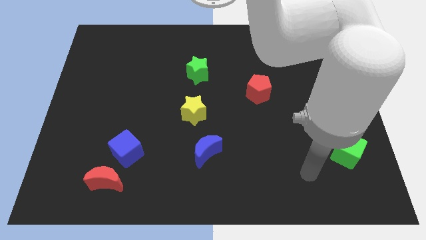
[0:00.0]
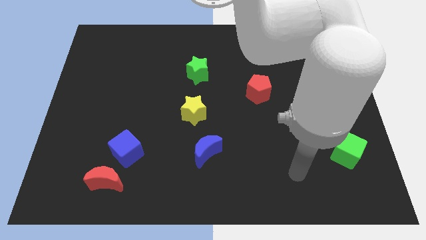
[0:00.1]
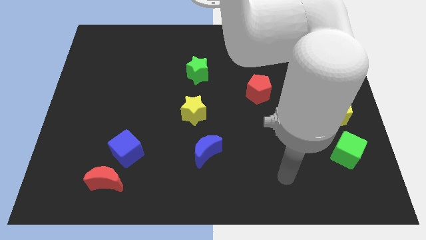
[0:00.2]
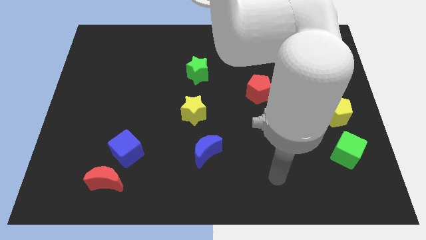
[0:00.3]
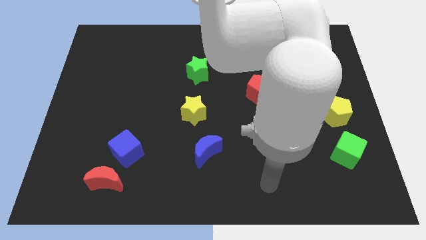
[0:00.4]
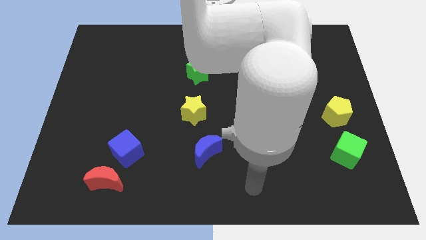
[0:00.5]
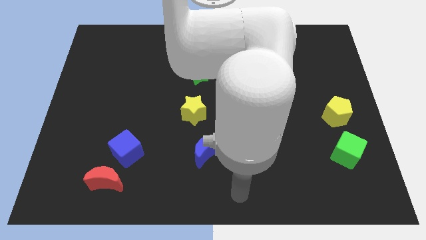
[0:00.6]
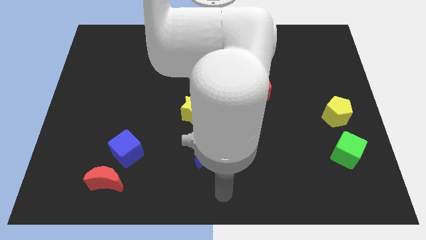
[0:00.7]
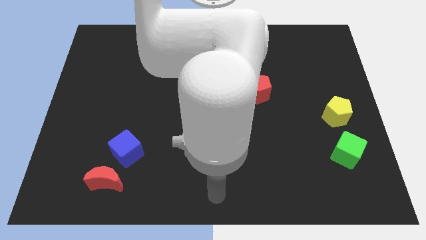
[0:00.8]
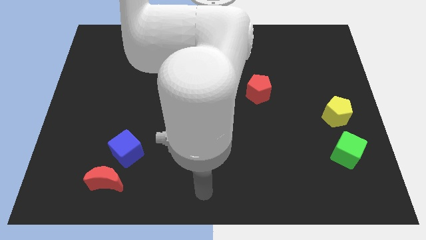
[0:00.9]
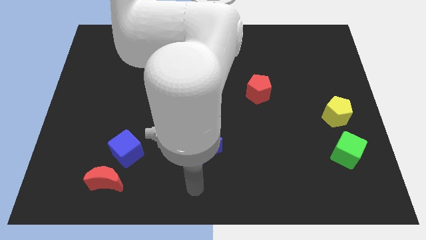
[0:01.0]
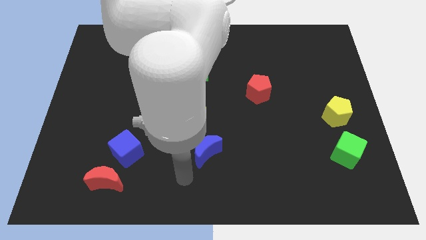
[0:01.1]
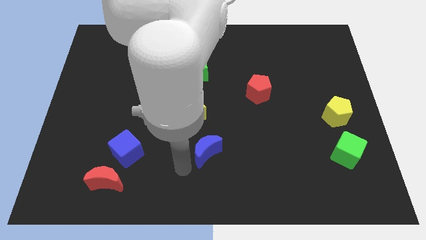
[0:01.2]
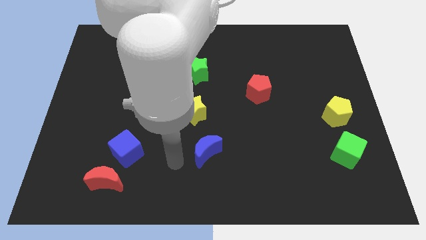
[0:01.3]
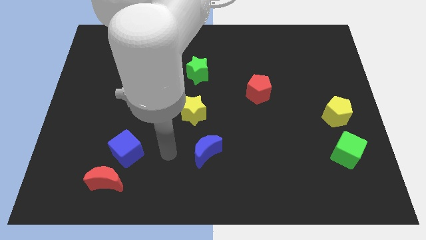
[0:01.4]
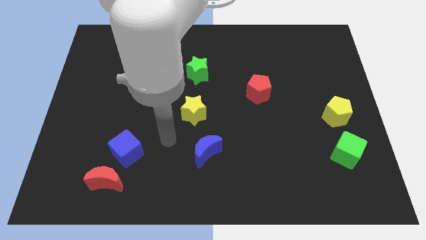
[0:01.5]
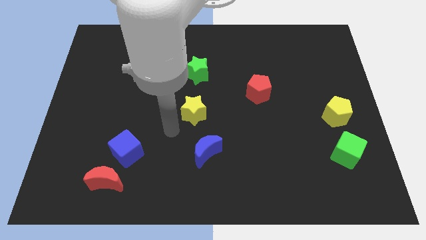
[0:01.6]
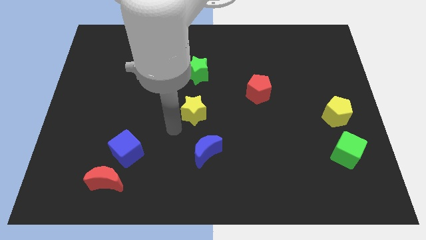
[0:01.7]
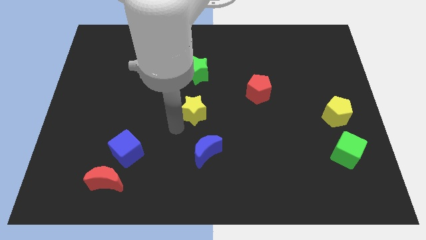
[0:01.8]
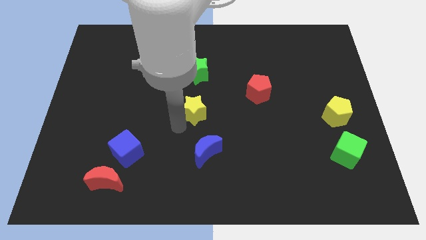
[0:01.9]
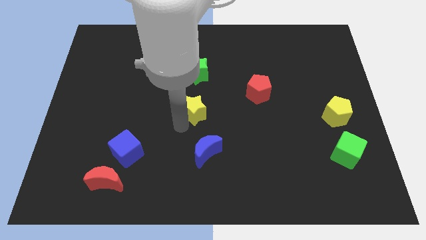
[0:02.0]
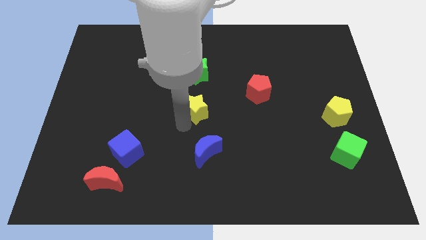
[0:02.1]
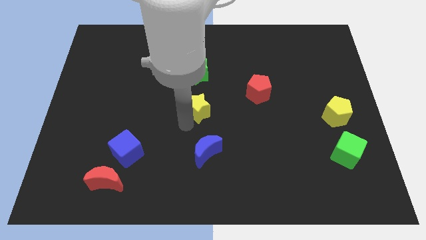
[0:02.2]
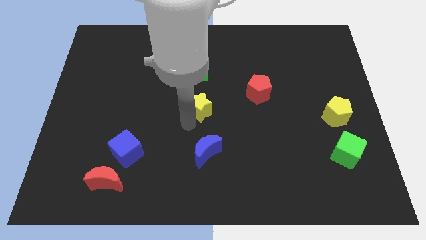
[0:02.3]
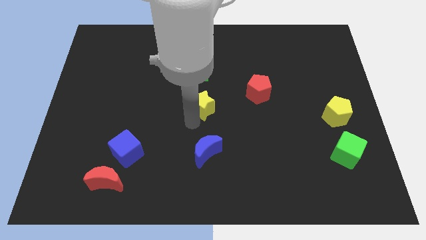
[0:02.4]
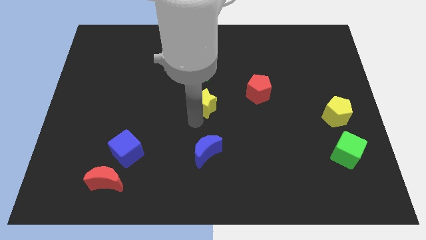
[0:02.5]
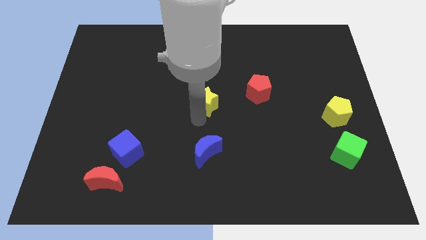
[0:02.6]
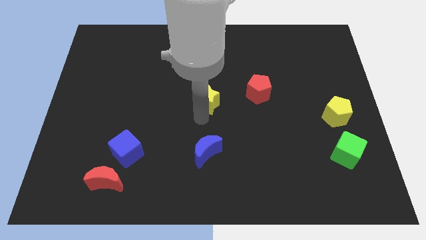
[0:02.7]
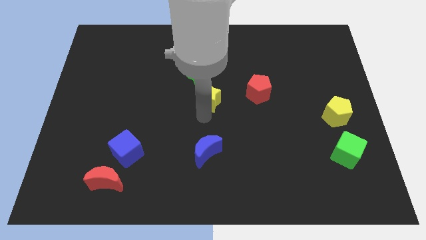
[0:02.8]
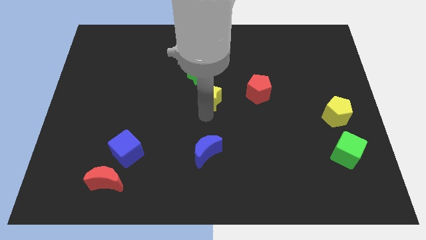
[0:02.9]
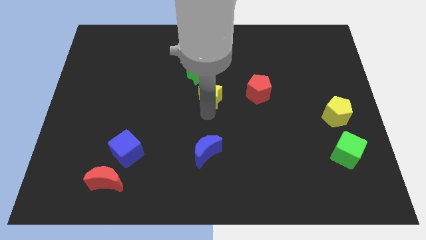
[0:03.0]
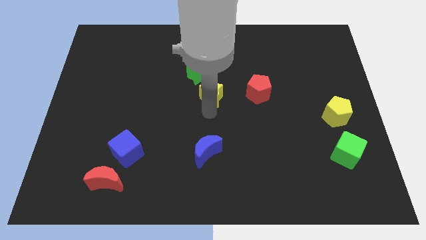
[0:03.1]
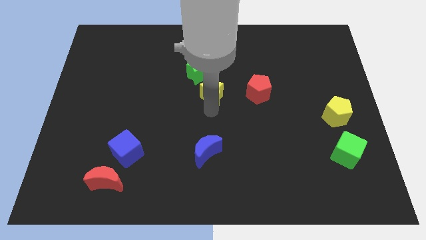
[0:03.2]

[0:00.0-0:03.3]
slightly slide the yellow star upwards and then to the right

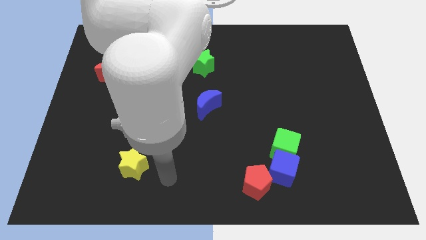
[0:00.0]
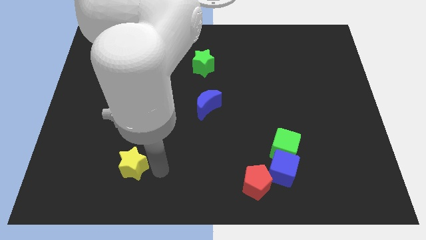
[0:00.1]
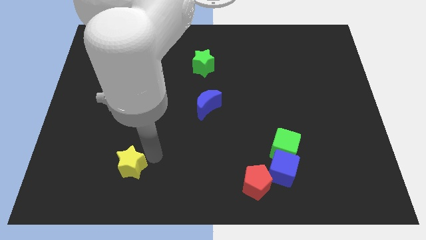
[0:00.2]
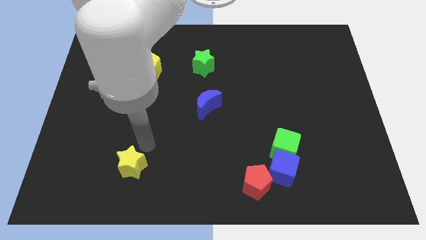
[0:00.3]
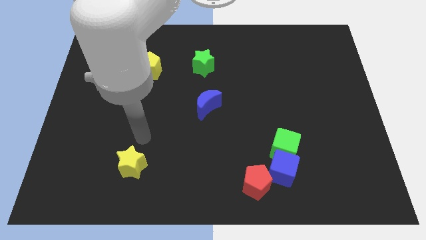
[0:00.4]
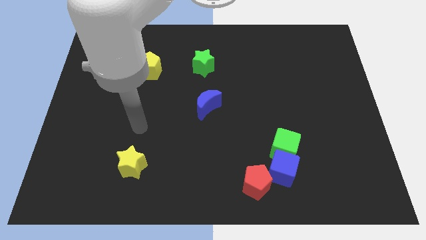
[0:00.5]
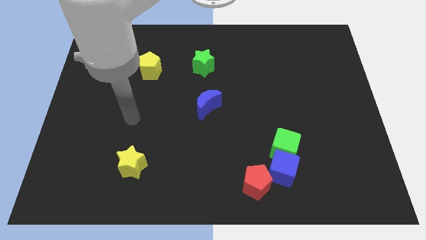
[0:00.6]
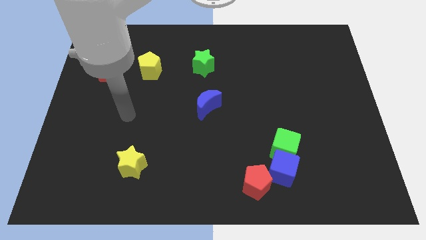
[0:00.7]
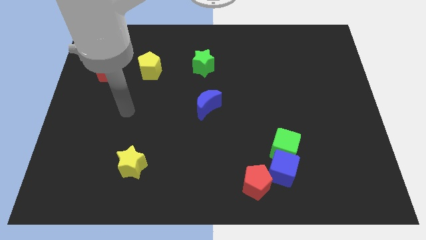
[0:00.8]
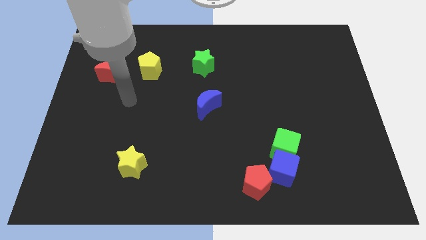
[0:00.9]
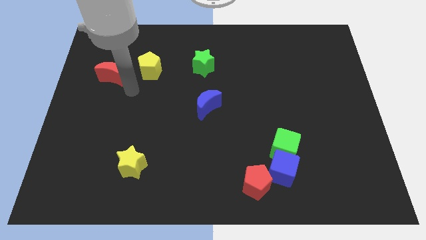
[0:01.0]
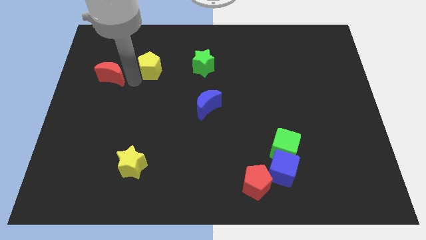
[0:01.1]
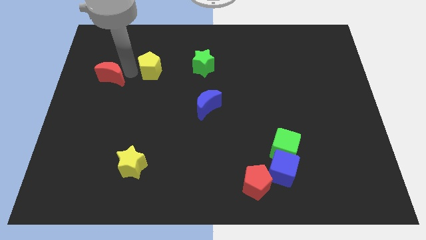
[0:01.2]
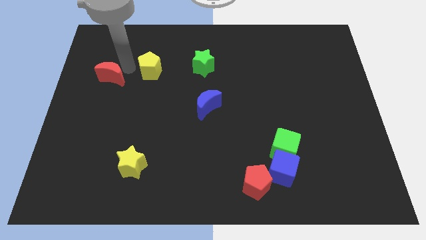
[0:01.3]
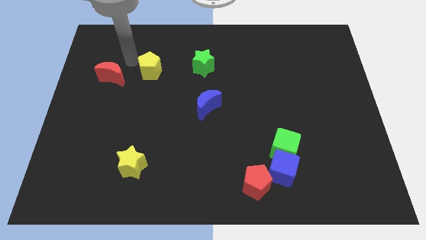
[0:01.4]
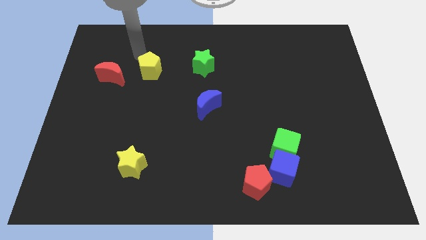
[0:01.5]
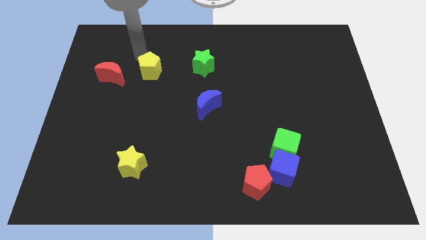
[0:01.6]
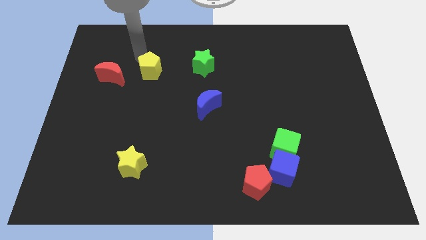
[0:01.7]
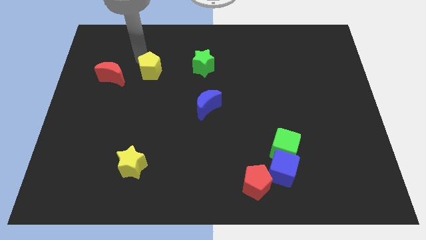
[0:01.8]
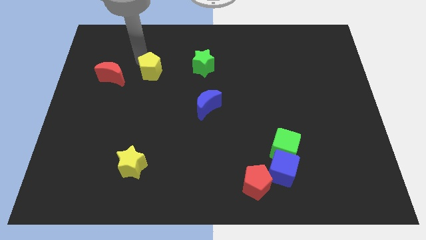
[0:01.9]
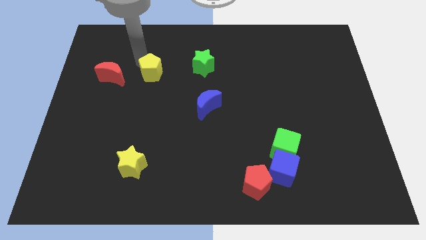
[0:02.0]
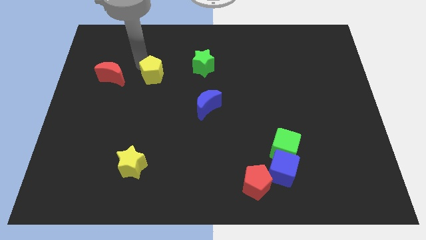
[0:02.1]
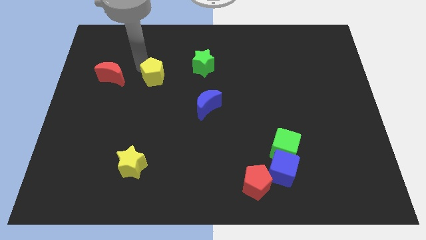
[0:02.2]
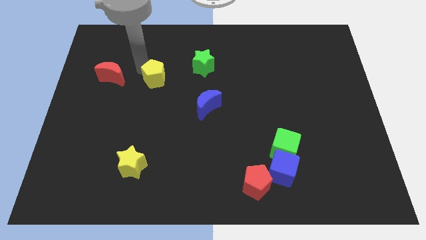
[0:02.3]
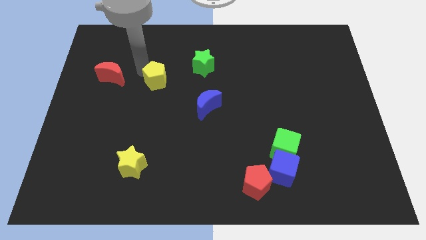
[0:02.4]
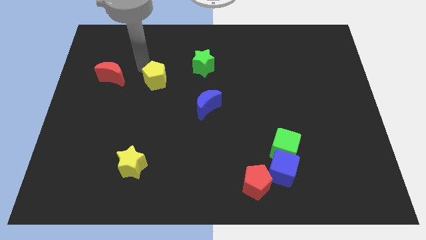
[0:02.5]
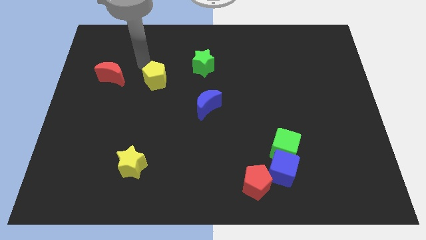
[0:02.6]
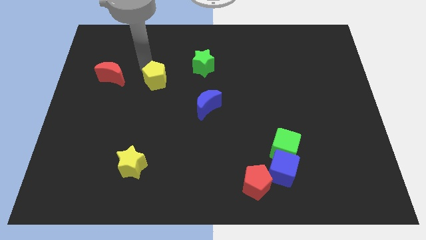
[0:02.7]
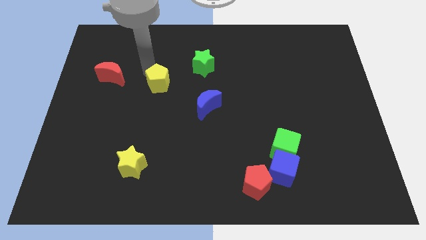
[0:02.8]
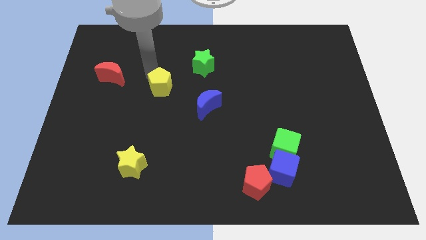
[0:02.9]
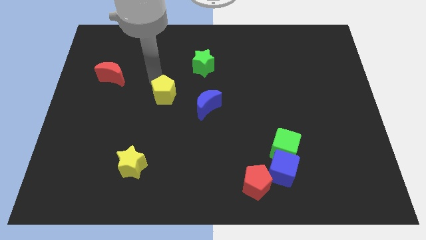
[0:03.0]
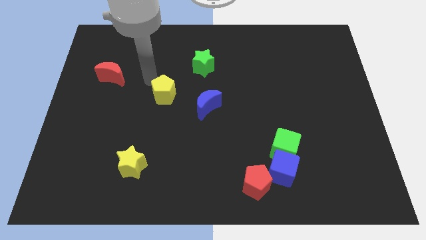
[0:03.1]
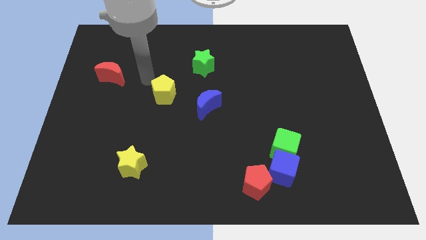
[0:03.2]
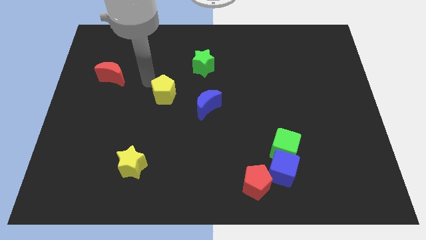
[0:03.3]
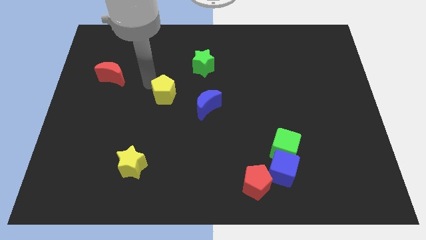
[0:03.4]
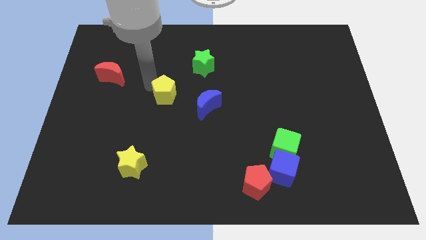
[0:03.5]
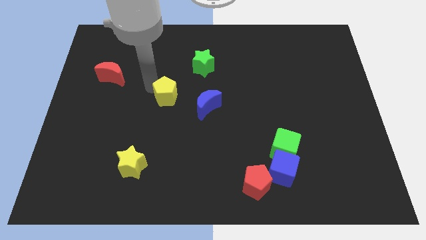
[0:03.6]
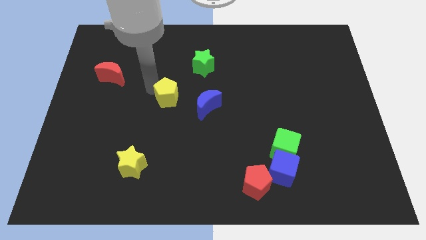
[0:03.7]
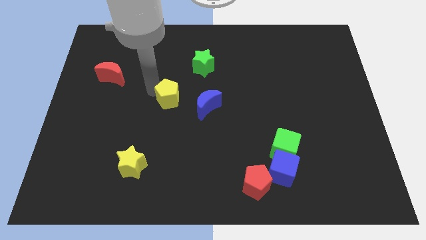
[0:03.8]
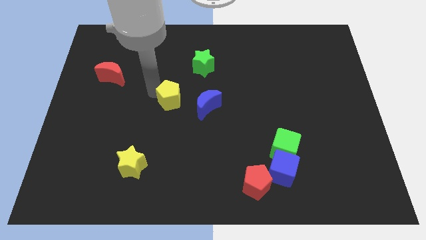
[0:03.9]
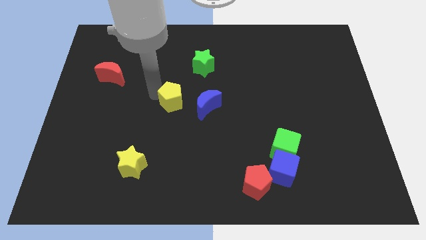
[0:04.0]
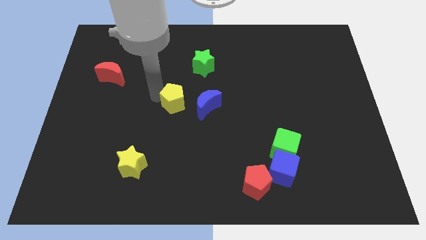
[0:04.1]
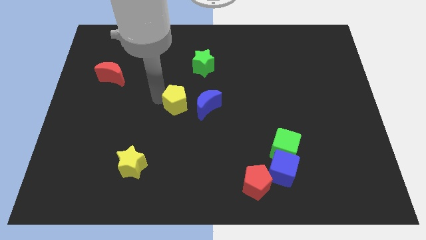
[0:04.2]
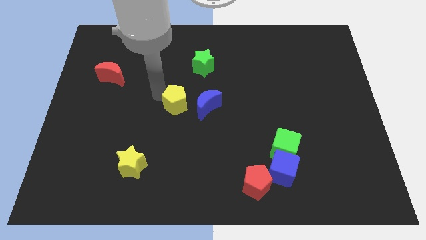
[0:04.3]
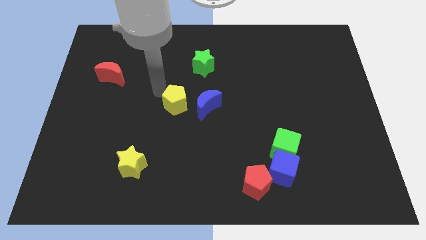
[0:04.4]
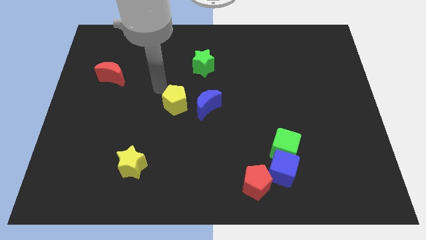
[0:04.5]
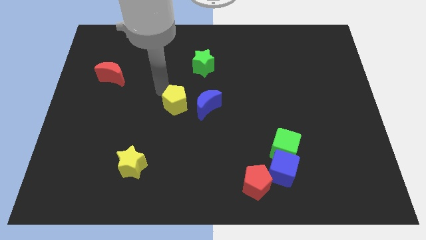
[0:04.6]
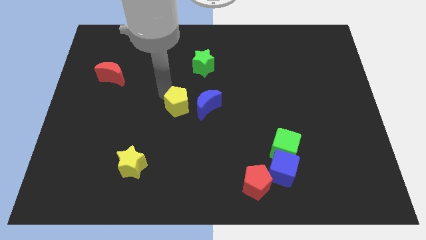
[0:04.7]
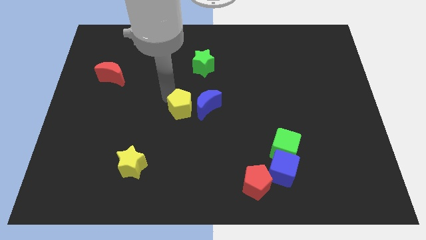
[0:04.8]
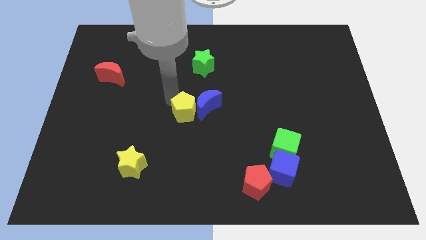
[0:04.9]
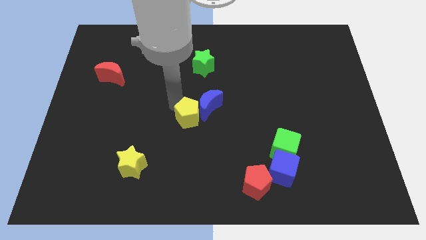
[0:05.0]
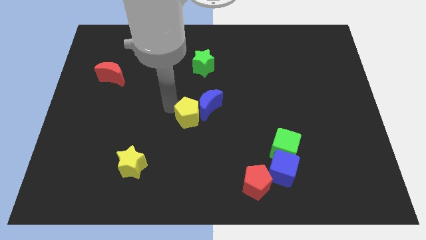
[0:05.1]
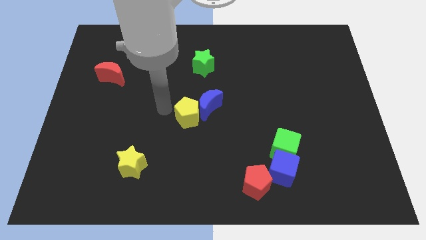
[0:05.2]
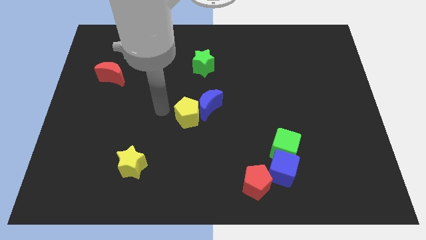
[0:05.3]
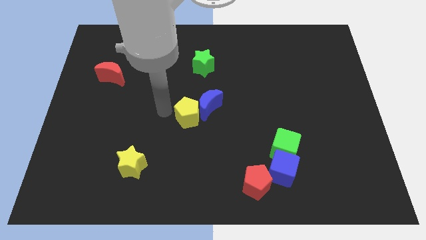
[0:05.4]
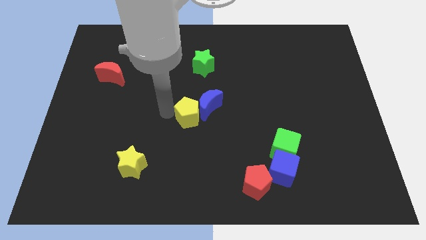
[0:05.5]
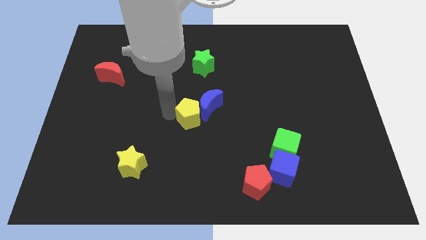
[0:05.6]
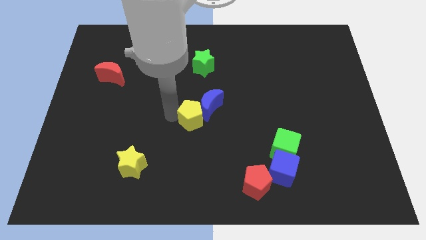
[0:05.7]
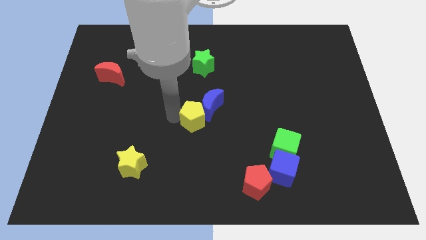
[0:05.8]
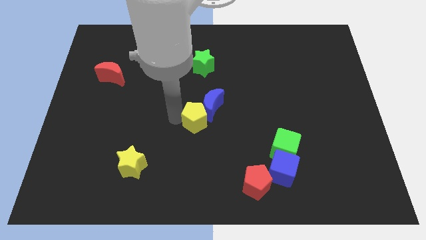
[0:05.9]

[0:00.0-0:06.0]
slide the yellow pentagon diagonally down and to the right
